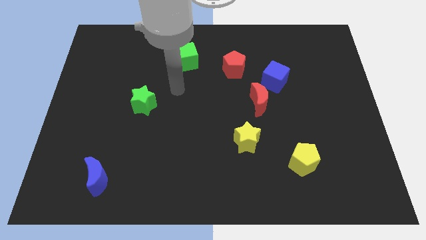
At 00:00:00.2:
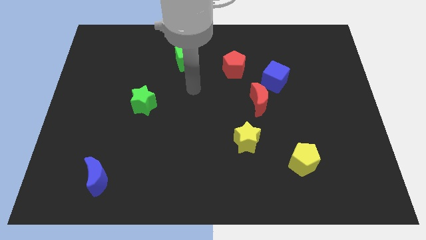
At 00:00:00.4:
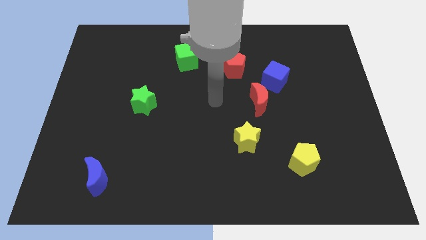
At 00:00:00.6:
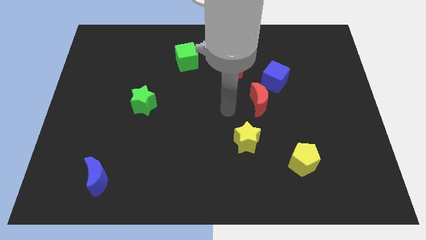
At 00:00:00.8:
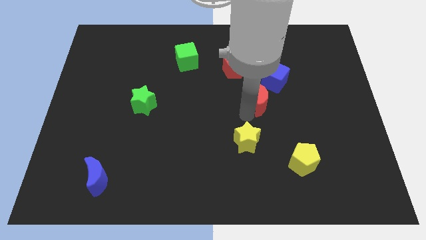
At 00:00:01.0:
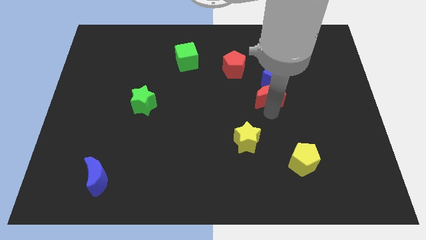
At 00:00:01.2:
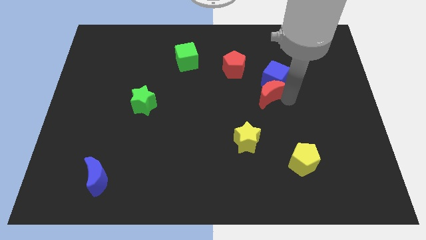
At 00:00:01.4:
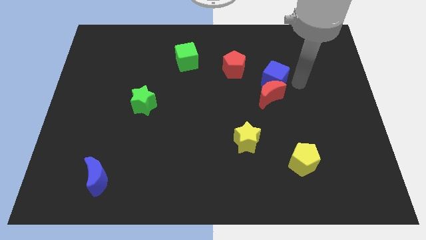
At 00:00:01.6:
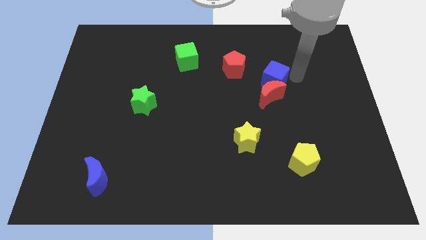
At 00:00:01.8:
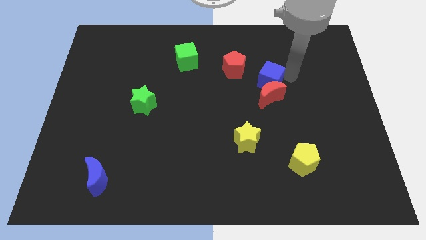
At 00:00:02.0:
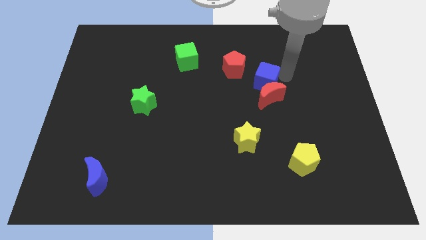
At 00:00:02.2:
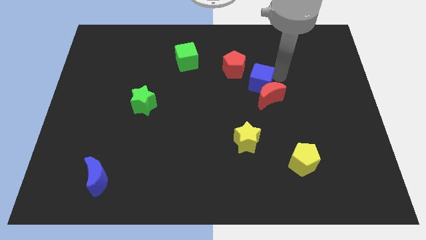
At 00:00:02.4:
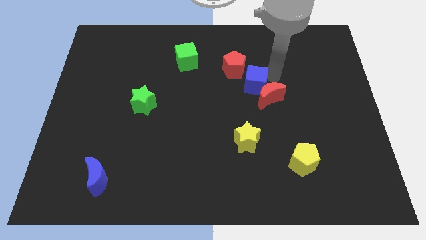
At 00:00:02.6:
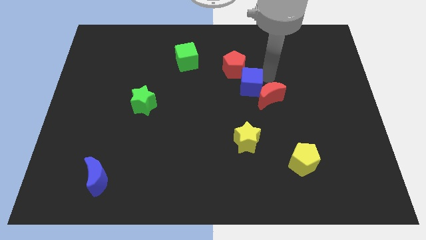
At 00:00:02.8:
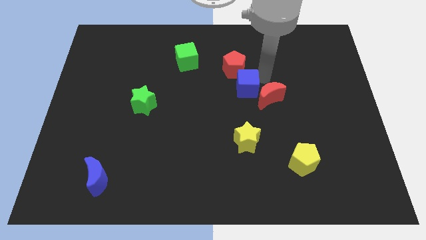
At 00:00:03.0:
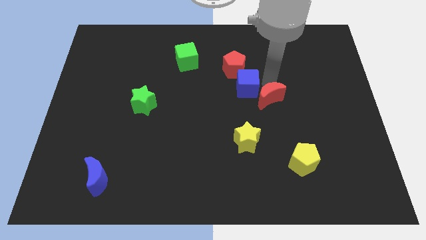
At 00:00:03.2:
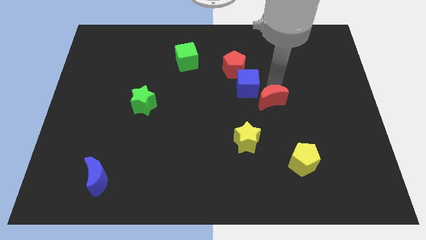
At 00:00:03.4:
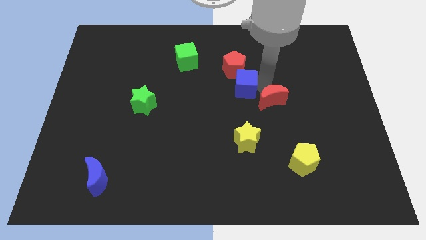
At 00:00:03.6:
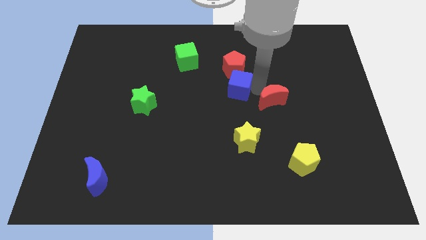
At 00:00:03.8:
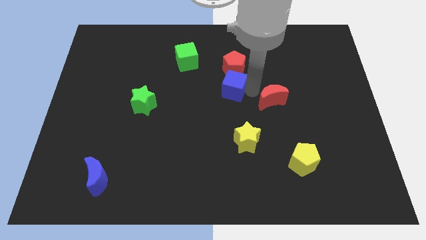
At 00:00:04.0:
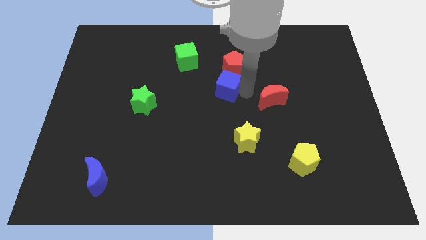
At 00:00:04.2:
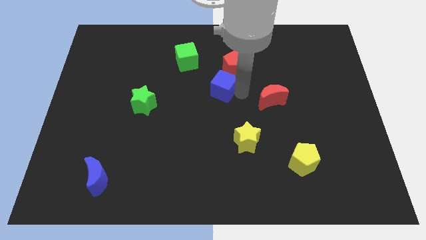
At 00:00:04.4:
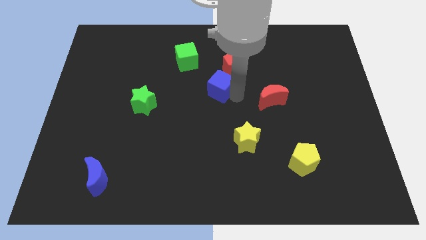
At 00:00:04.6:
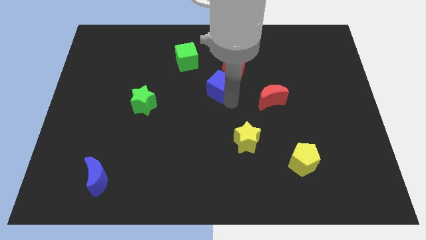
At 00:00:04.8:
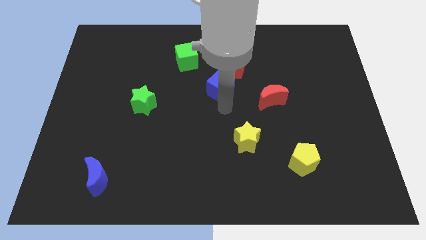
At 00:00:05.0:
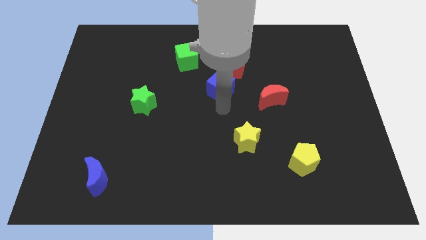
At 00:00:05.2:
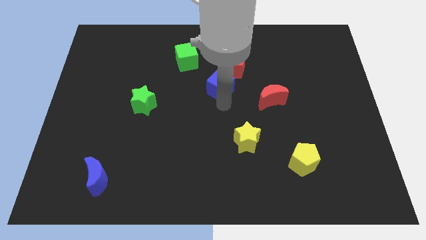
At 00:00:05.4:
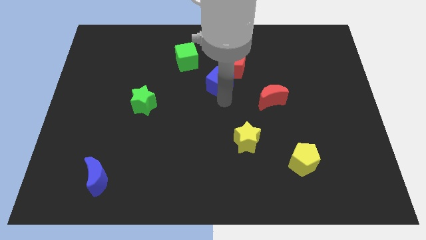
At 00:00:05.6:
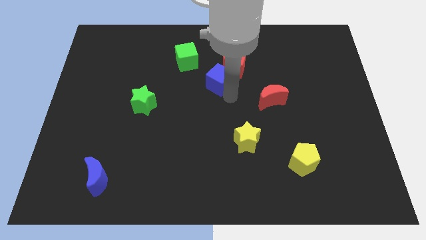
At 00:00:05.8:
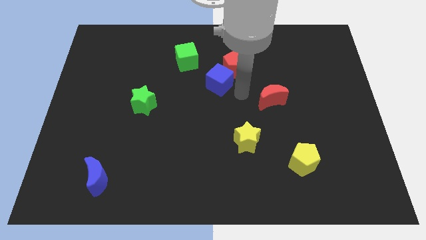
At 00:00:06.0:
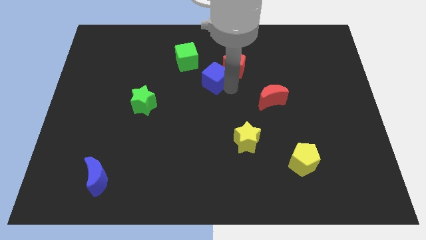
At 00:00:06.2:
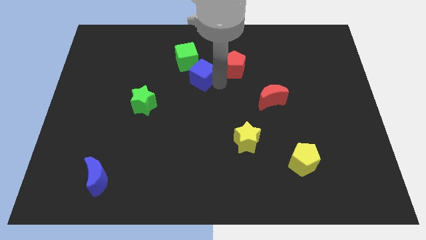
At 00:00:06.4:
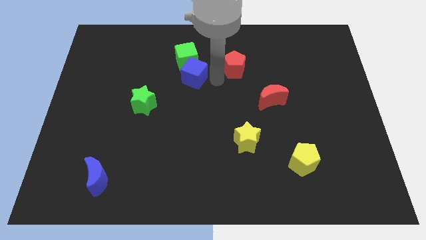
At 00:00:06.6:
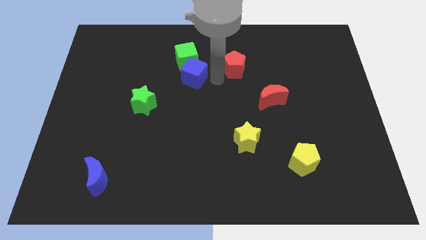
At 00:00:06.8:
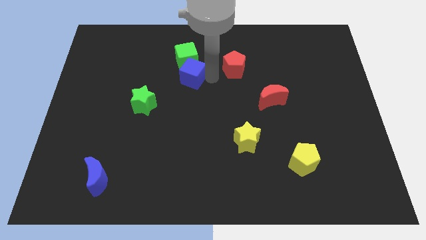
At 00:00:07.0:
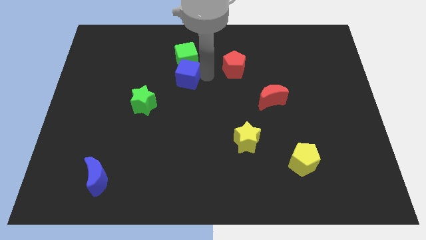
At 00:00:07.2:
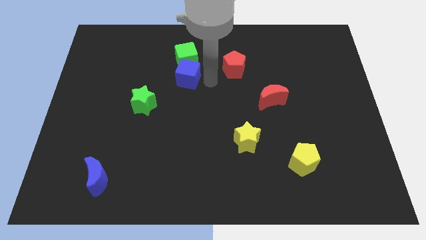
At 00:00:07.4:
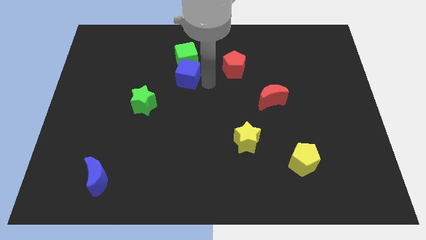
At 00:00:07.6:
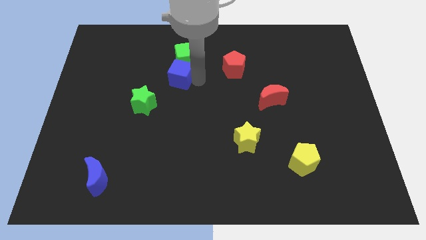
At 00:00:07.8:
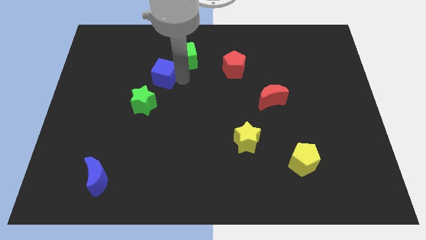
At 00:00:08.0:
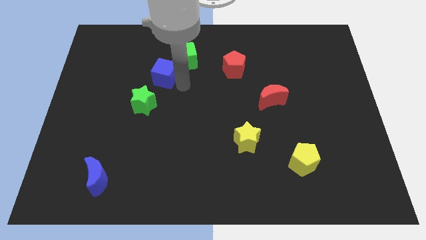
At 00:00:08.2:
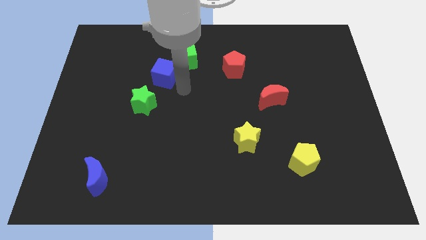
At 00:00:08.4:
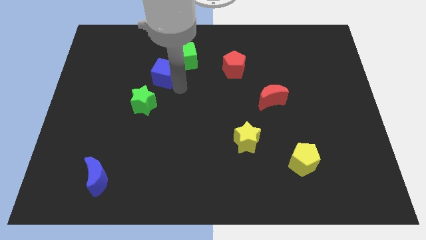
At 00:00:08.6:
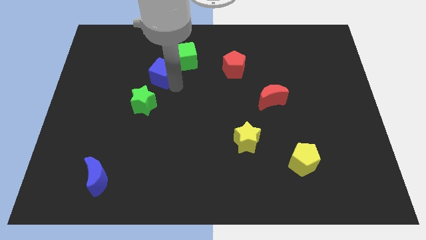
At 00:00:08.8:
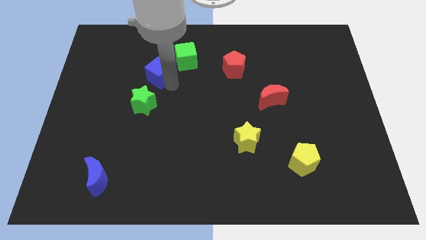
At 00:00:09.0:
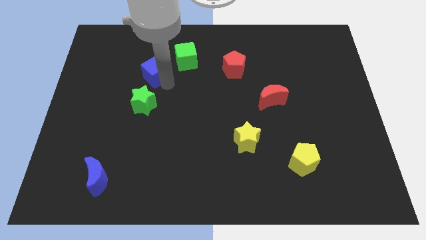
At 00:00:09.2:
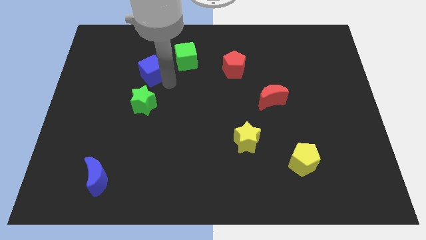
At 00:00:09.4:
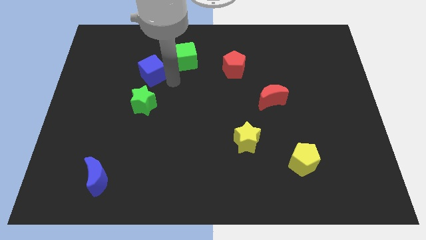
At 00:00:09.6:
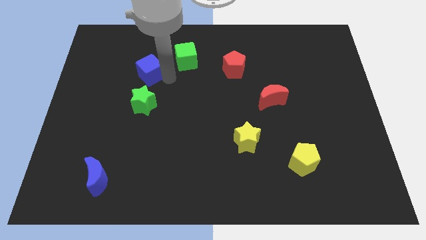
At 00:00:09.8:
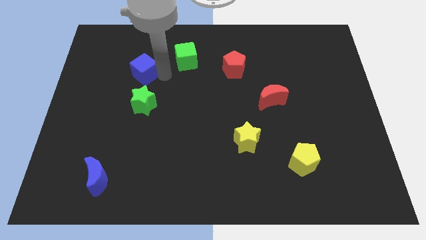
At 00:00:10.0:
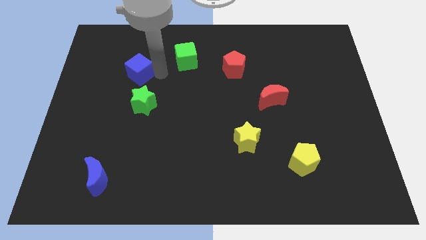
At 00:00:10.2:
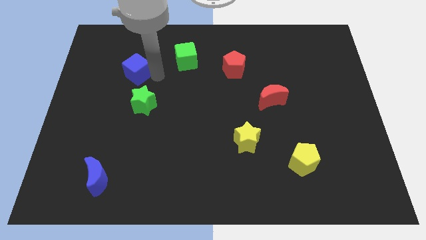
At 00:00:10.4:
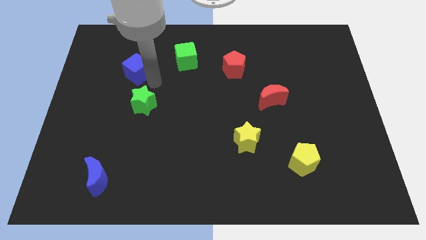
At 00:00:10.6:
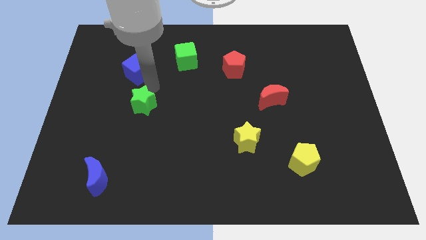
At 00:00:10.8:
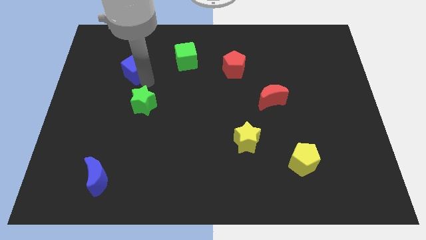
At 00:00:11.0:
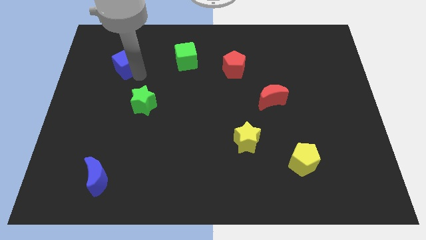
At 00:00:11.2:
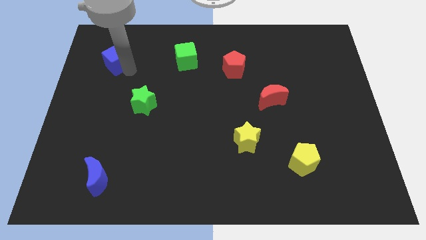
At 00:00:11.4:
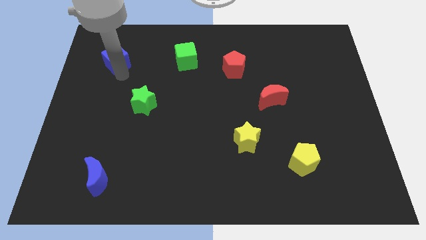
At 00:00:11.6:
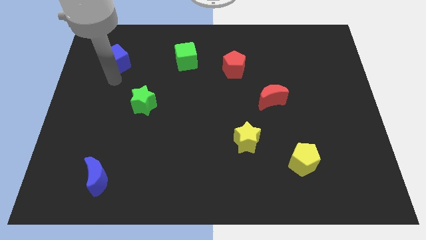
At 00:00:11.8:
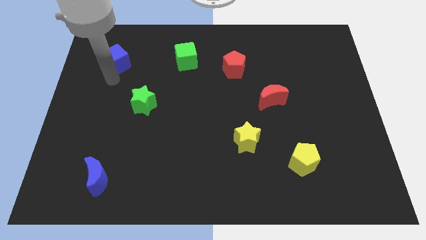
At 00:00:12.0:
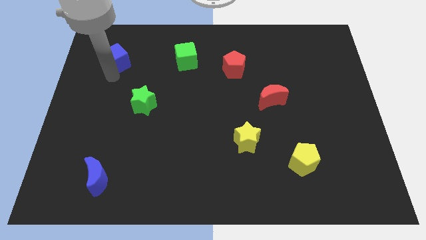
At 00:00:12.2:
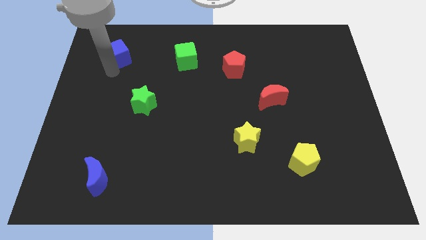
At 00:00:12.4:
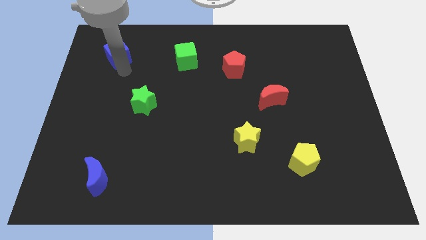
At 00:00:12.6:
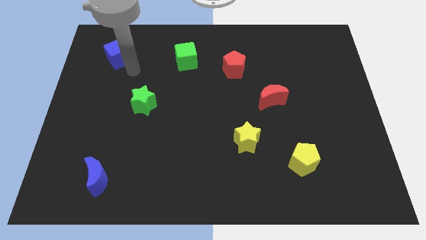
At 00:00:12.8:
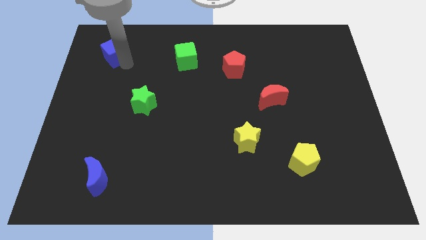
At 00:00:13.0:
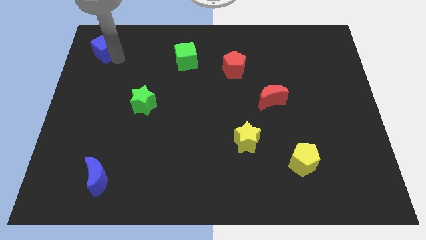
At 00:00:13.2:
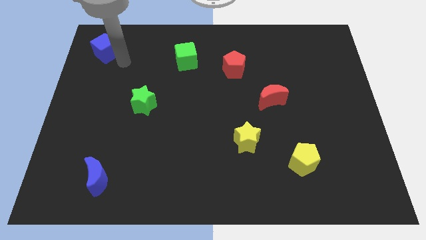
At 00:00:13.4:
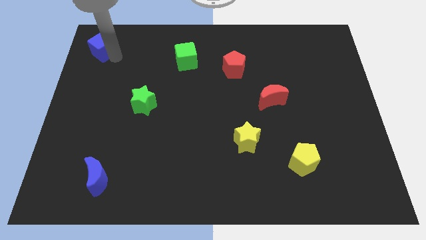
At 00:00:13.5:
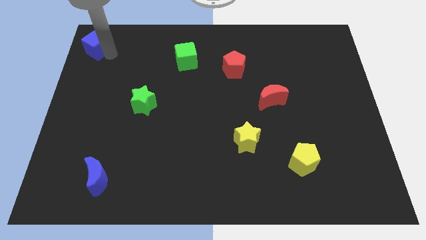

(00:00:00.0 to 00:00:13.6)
put the blue cube to the top left corner

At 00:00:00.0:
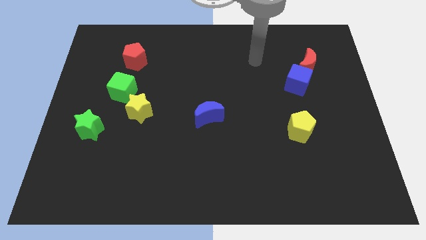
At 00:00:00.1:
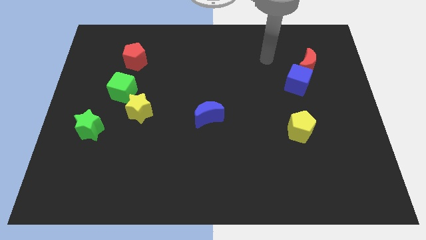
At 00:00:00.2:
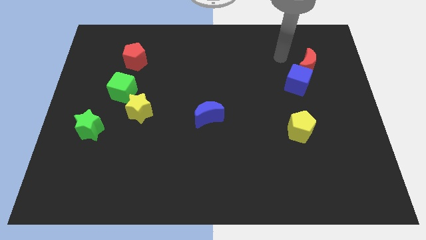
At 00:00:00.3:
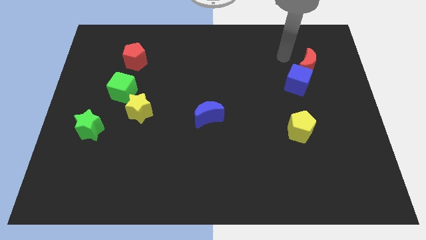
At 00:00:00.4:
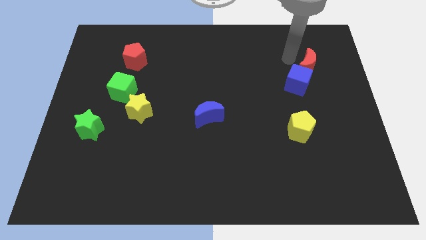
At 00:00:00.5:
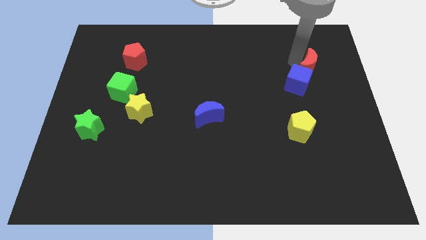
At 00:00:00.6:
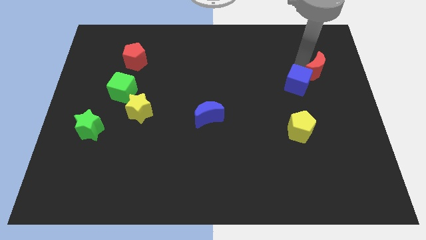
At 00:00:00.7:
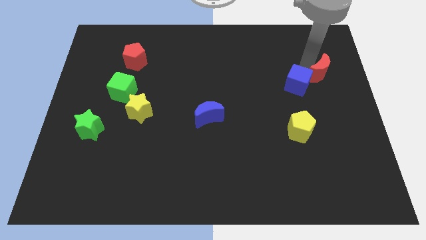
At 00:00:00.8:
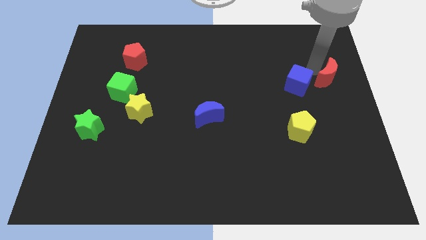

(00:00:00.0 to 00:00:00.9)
move the red moon to the center right
